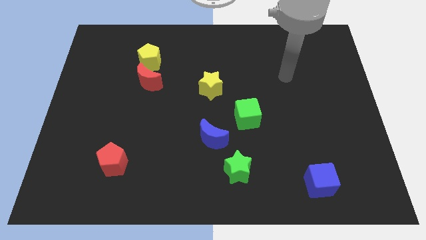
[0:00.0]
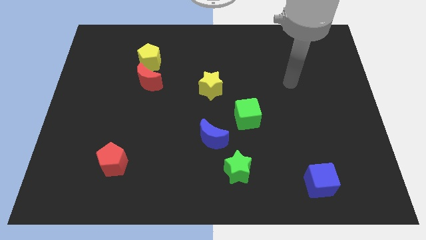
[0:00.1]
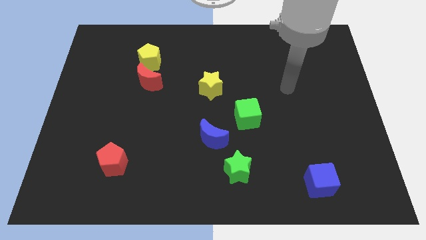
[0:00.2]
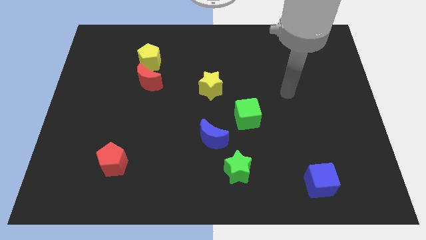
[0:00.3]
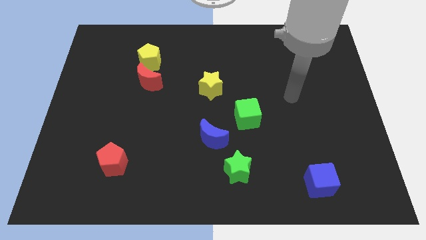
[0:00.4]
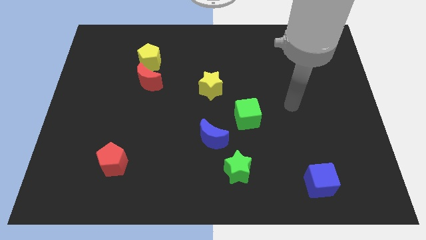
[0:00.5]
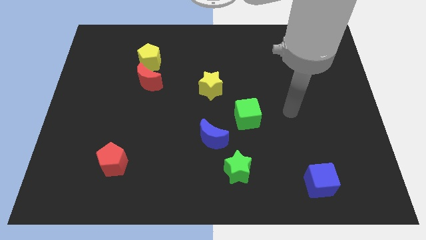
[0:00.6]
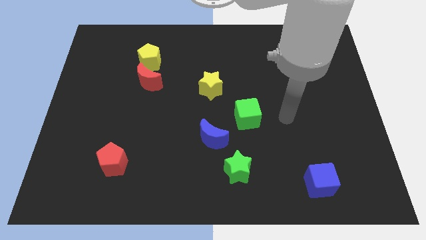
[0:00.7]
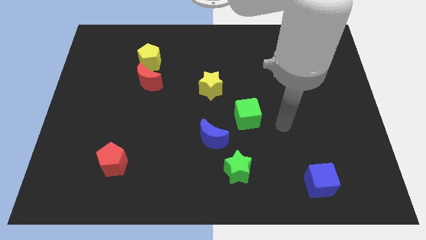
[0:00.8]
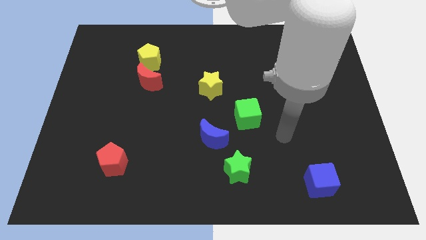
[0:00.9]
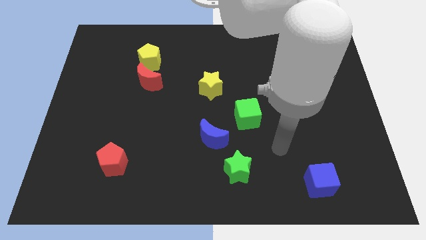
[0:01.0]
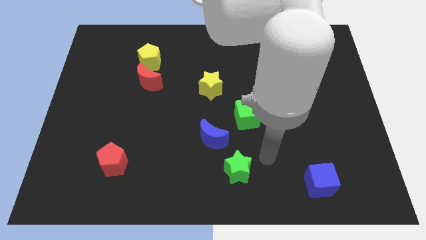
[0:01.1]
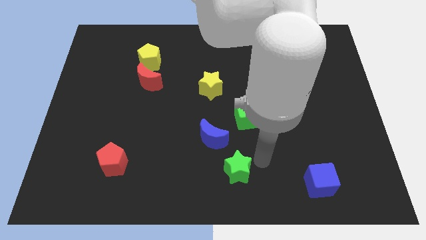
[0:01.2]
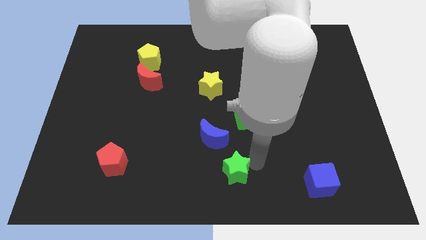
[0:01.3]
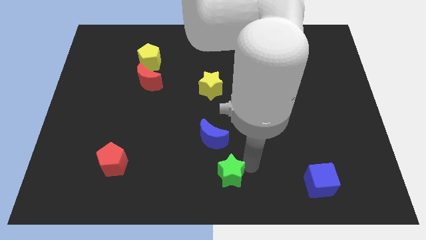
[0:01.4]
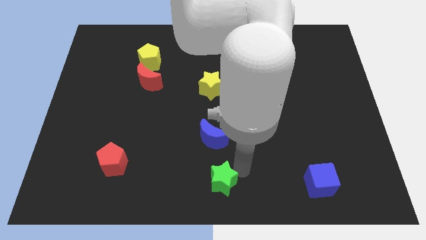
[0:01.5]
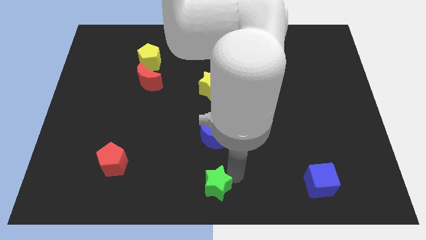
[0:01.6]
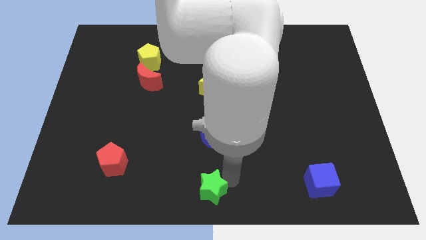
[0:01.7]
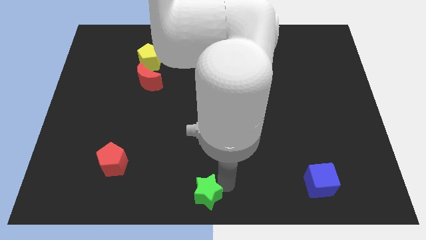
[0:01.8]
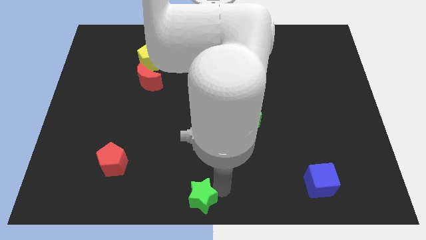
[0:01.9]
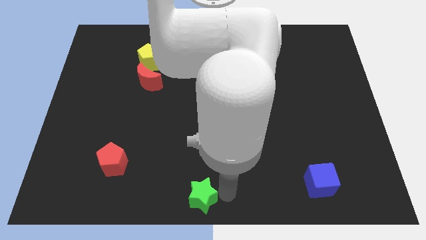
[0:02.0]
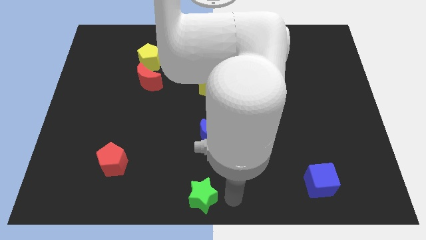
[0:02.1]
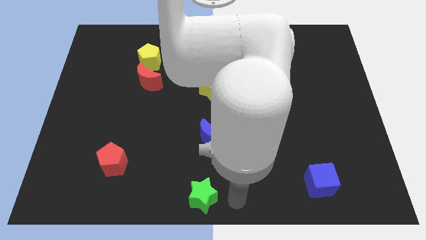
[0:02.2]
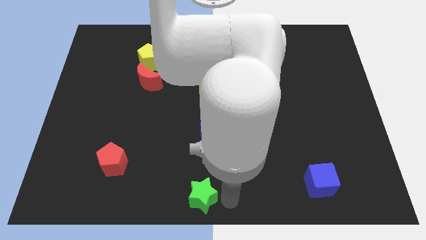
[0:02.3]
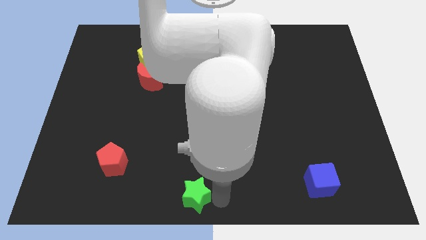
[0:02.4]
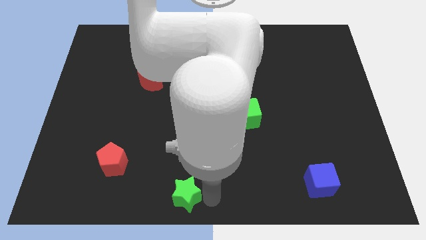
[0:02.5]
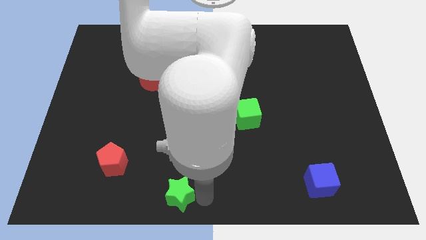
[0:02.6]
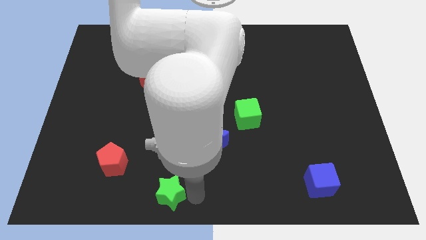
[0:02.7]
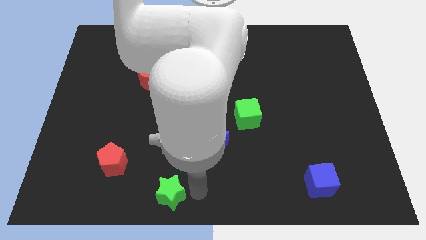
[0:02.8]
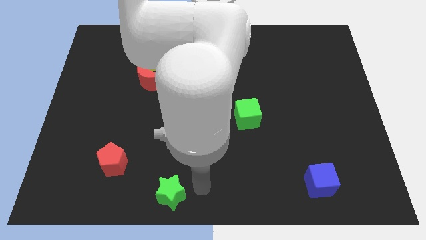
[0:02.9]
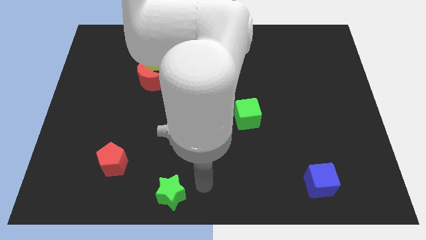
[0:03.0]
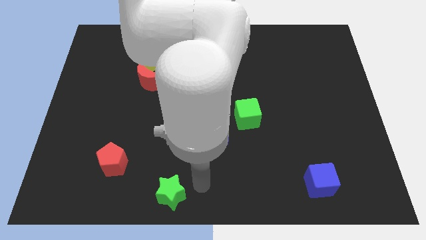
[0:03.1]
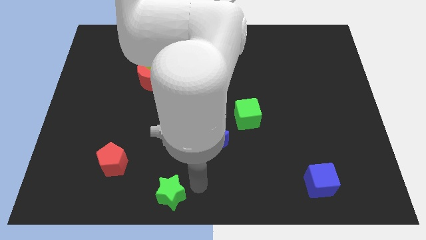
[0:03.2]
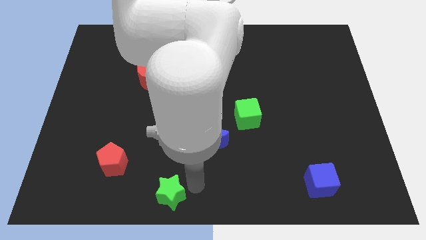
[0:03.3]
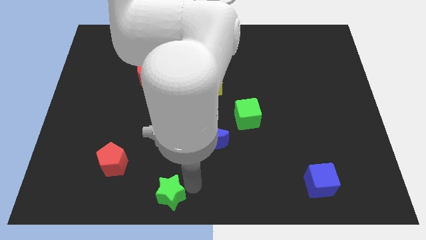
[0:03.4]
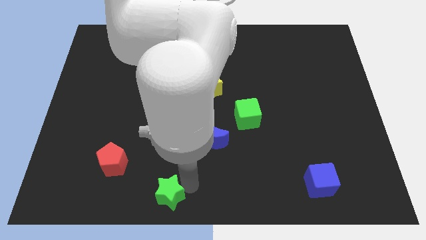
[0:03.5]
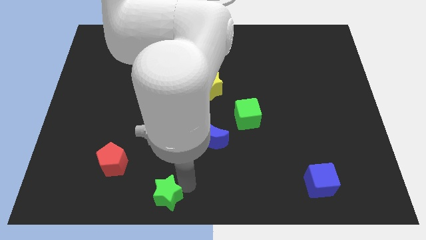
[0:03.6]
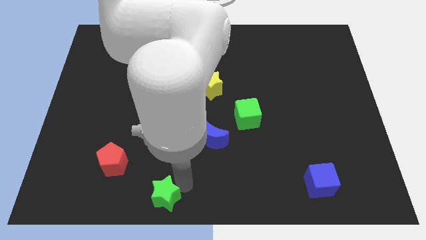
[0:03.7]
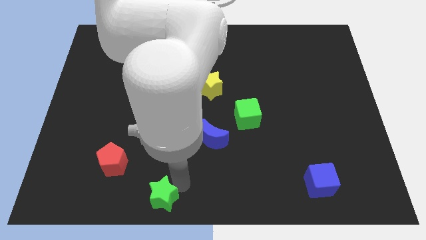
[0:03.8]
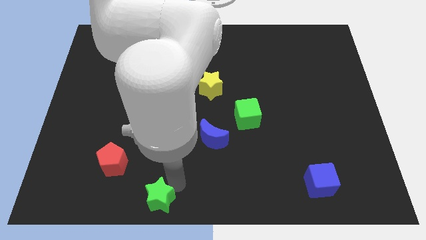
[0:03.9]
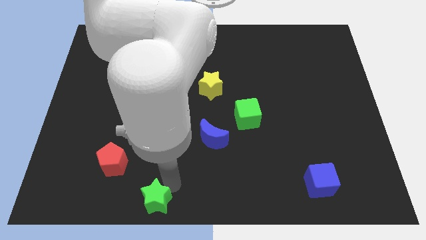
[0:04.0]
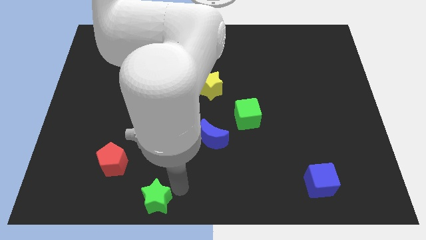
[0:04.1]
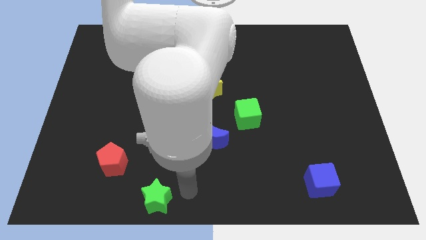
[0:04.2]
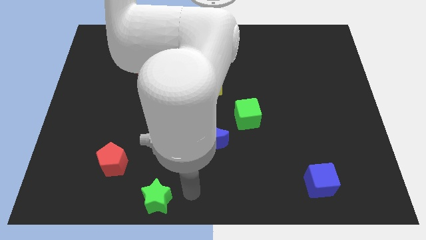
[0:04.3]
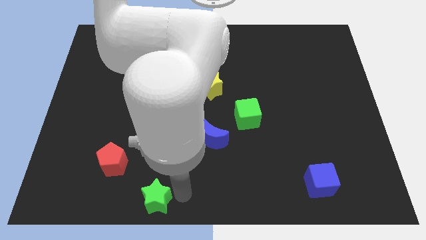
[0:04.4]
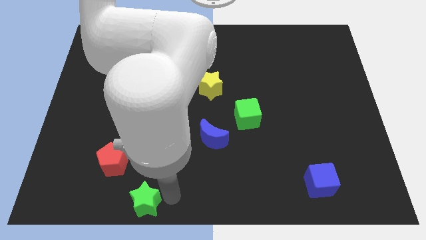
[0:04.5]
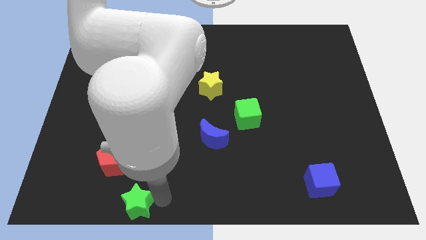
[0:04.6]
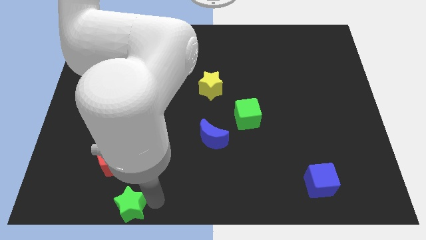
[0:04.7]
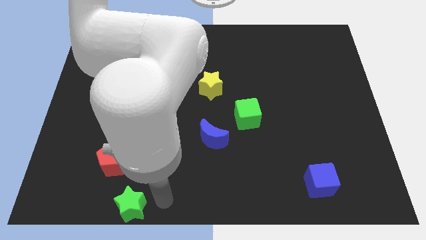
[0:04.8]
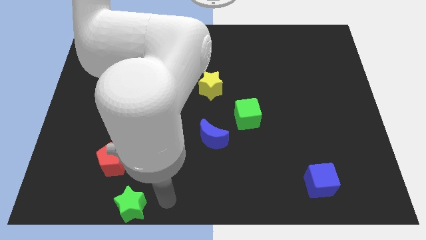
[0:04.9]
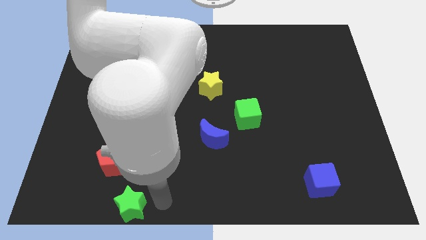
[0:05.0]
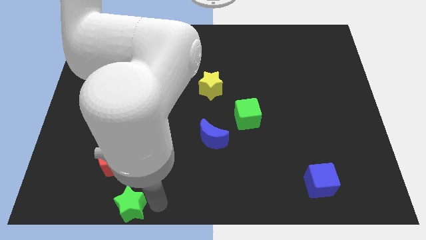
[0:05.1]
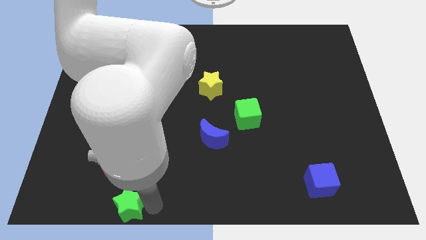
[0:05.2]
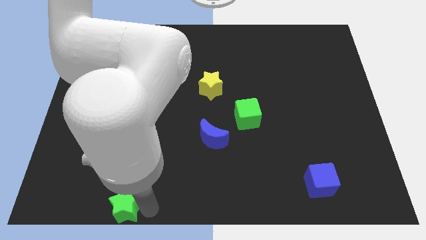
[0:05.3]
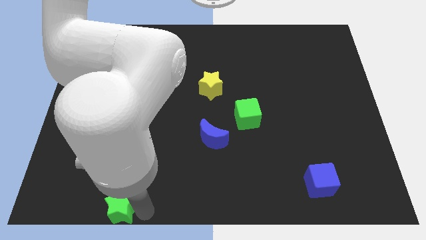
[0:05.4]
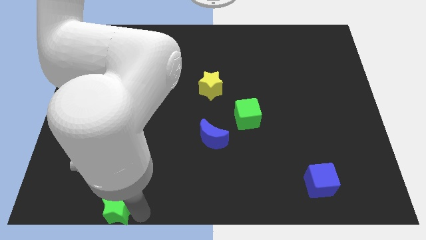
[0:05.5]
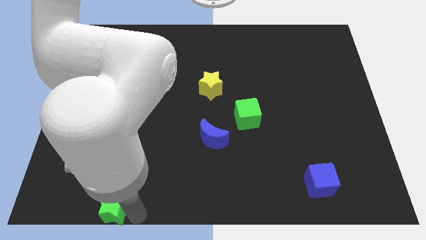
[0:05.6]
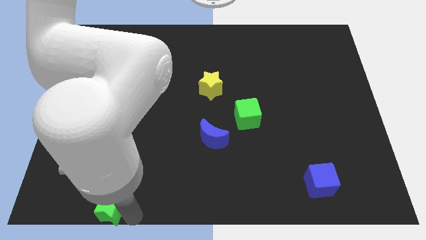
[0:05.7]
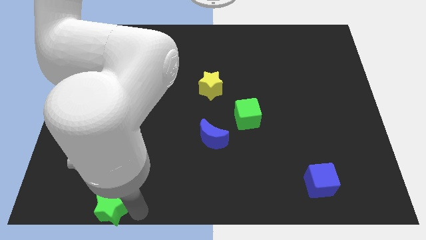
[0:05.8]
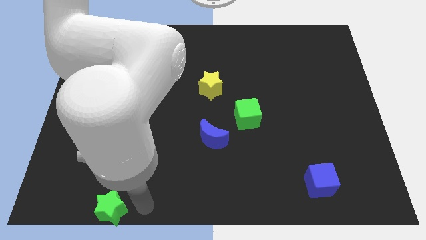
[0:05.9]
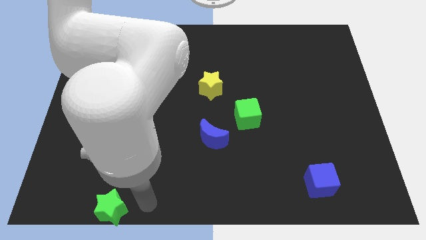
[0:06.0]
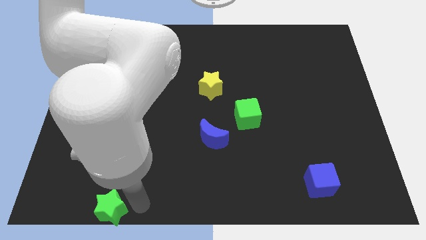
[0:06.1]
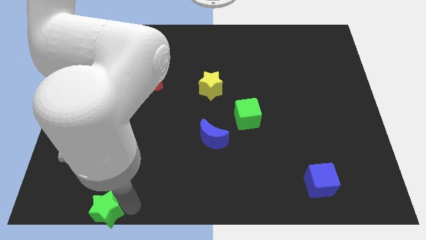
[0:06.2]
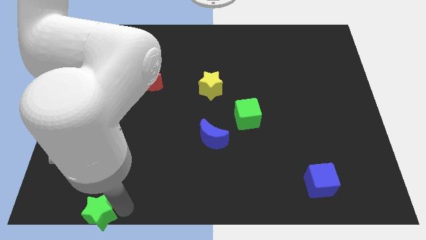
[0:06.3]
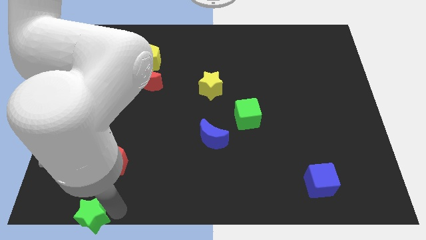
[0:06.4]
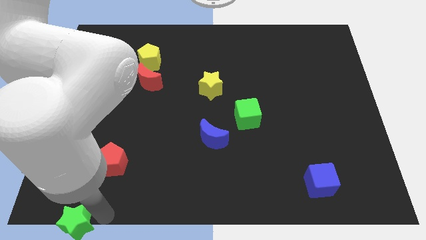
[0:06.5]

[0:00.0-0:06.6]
put the green star to the bottom left

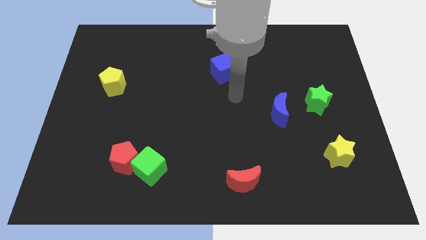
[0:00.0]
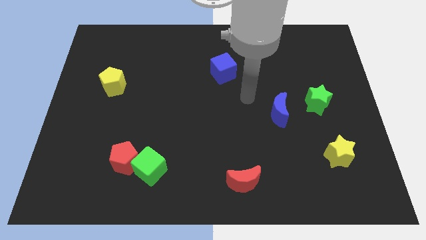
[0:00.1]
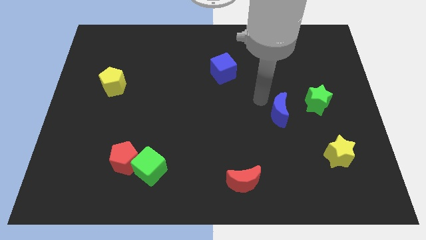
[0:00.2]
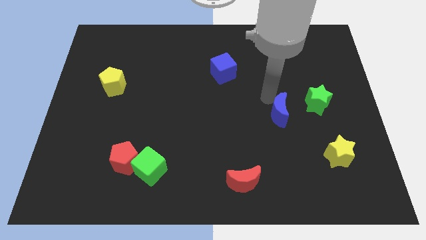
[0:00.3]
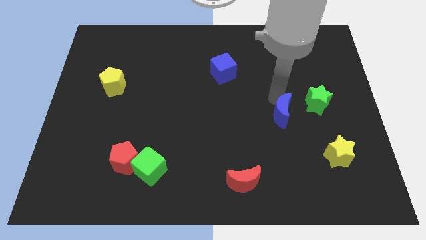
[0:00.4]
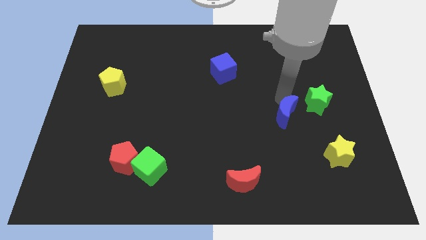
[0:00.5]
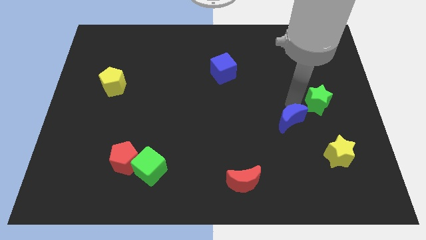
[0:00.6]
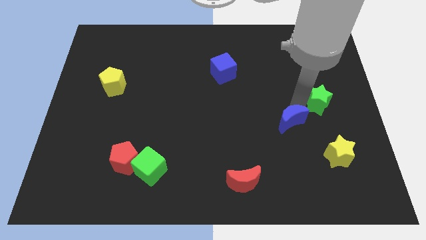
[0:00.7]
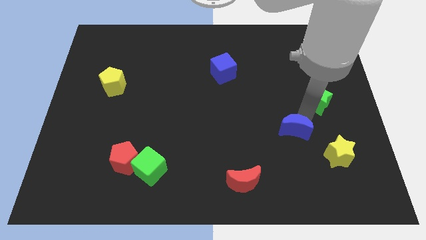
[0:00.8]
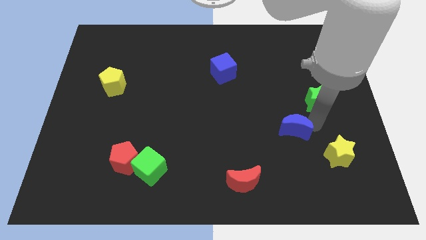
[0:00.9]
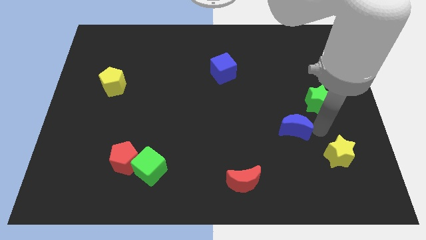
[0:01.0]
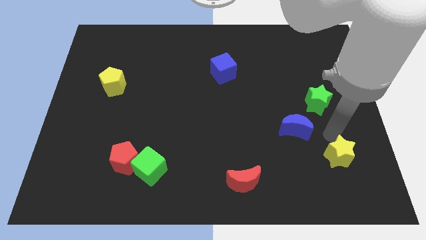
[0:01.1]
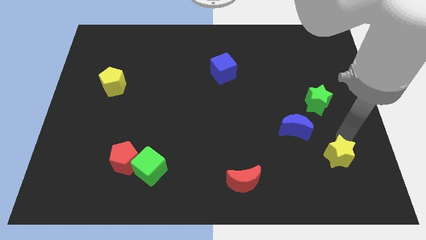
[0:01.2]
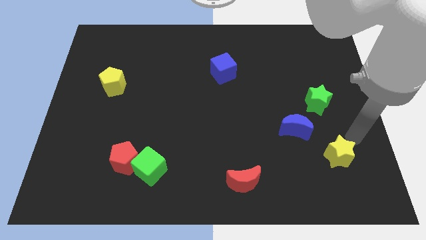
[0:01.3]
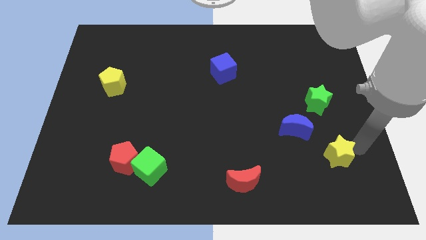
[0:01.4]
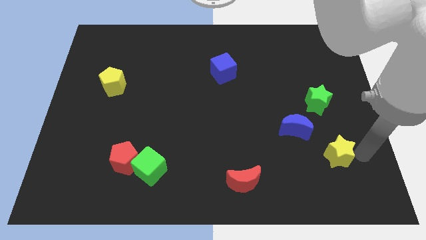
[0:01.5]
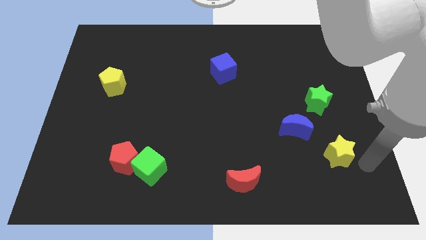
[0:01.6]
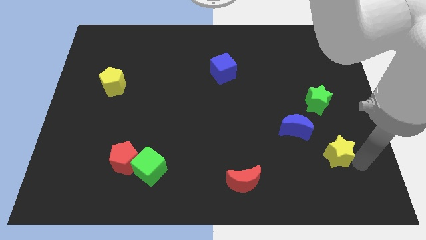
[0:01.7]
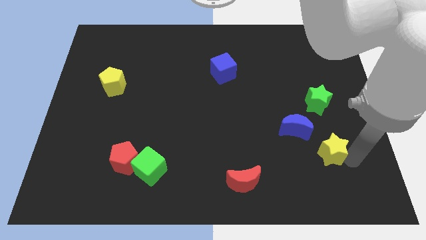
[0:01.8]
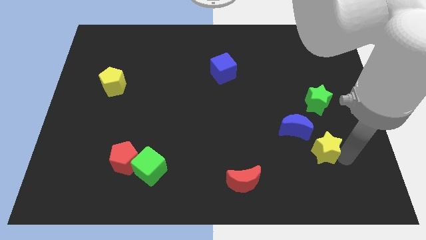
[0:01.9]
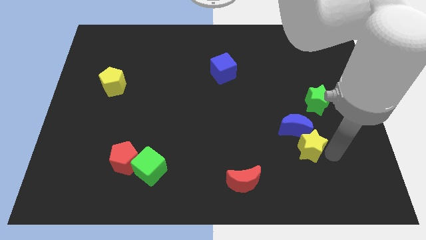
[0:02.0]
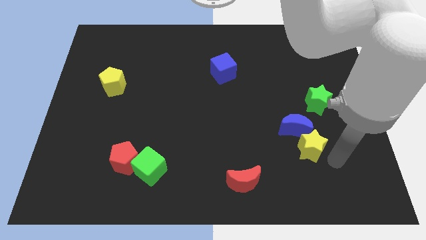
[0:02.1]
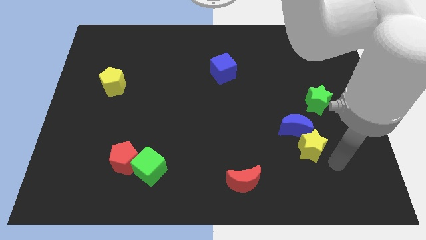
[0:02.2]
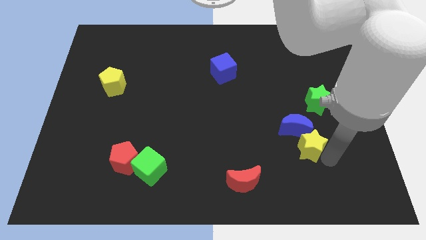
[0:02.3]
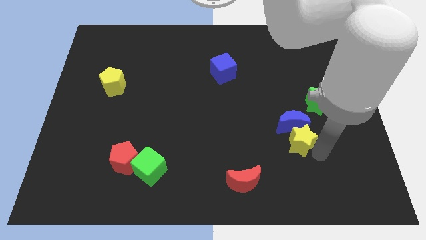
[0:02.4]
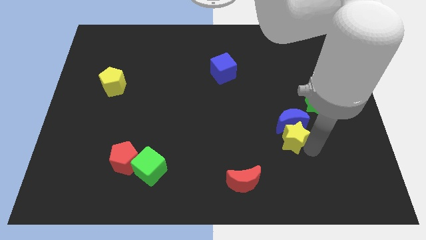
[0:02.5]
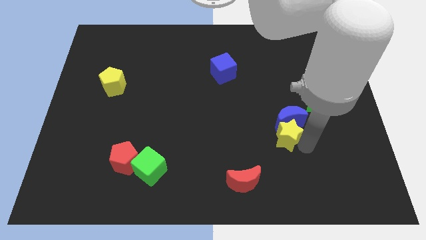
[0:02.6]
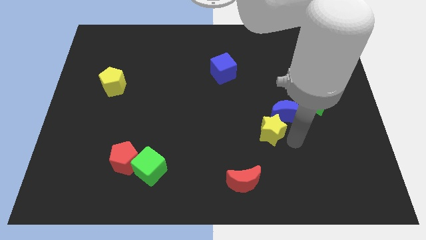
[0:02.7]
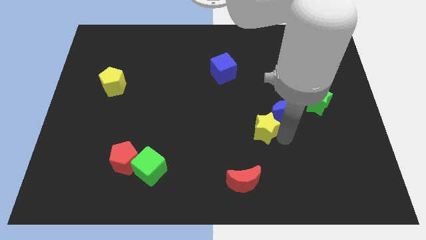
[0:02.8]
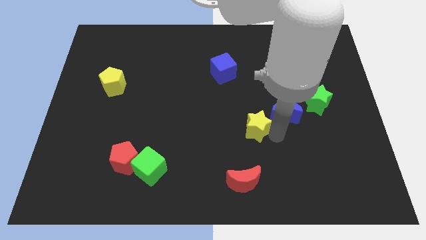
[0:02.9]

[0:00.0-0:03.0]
put the yellow star to the center of the board
